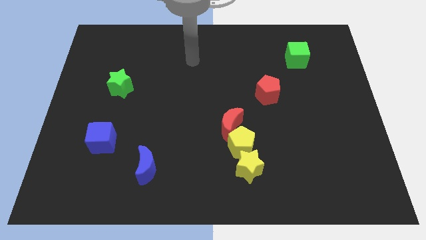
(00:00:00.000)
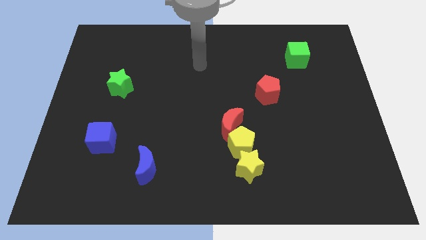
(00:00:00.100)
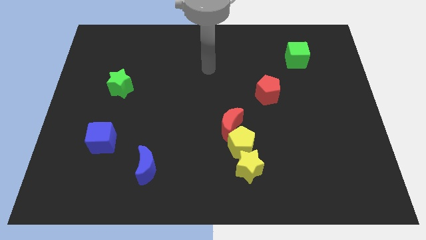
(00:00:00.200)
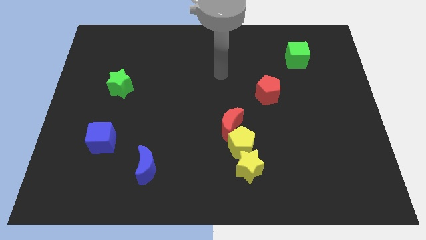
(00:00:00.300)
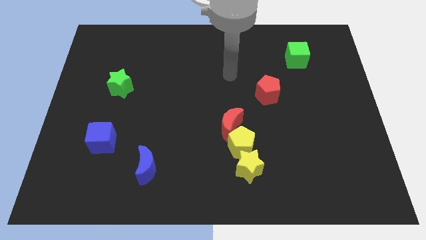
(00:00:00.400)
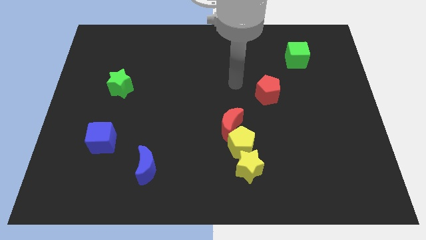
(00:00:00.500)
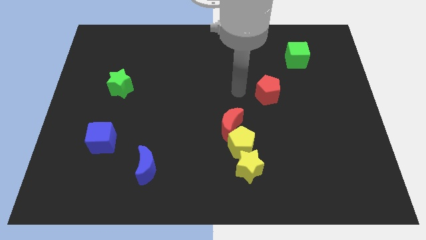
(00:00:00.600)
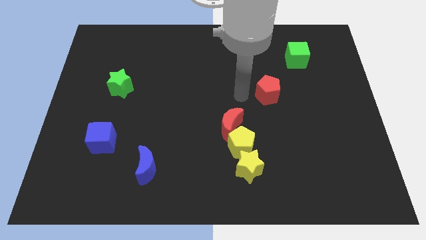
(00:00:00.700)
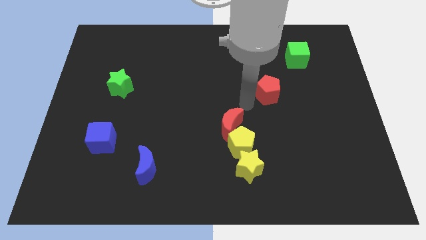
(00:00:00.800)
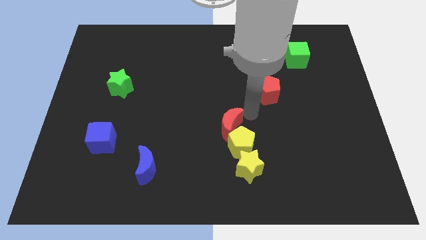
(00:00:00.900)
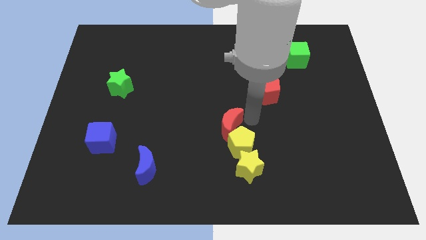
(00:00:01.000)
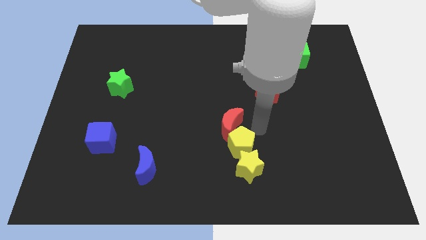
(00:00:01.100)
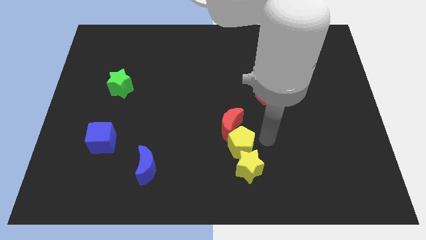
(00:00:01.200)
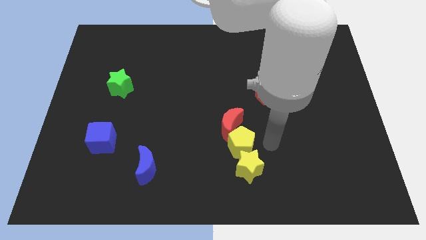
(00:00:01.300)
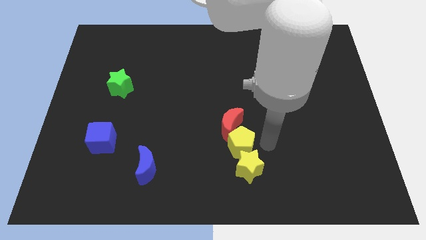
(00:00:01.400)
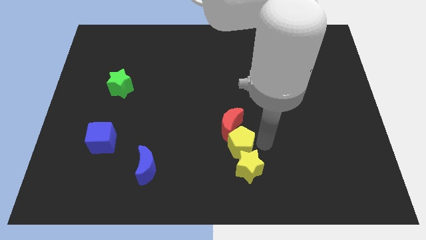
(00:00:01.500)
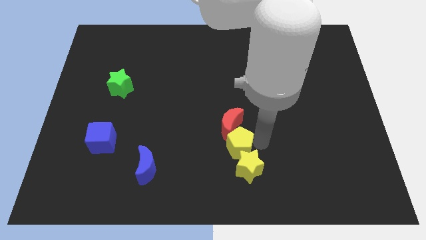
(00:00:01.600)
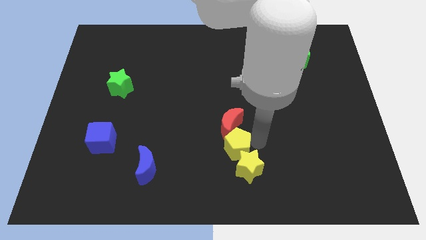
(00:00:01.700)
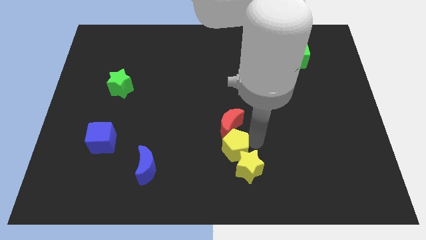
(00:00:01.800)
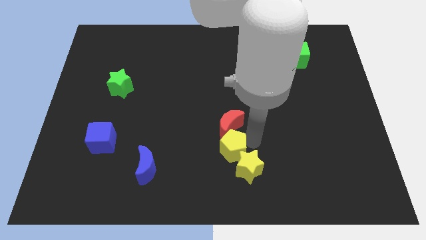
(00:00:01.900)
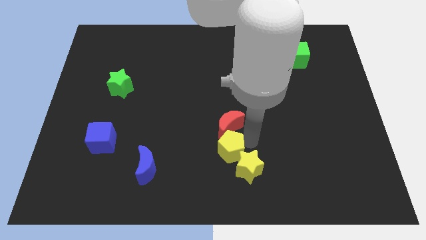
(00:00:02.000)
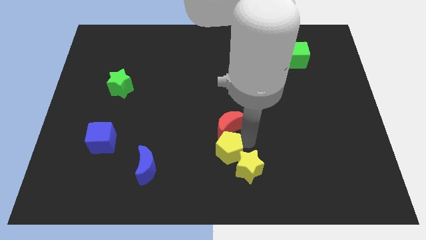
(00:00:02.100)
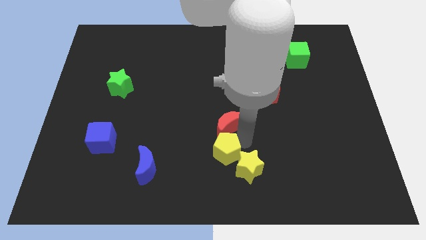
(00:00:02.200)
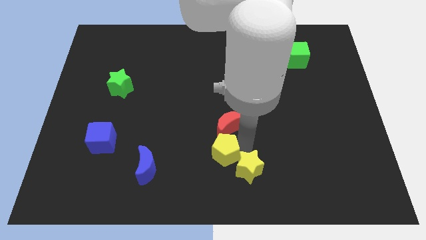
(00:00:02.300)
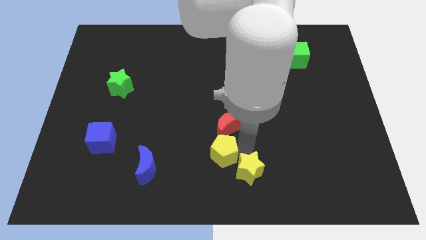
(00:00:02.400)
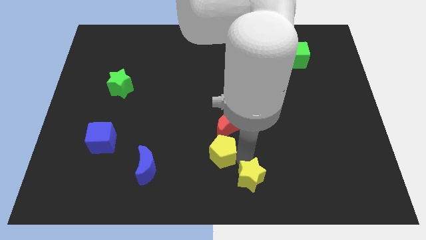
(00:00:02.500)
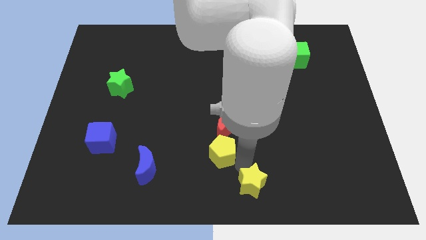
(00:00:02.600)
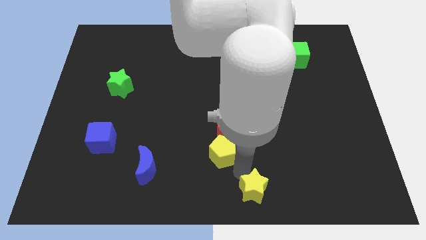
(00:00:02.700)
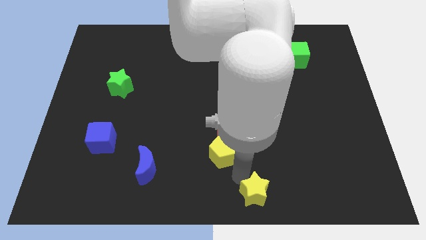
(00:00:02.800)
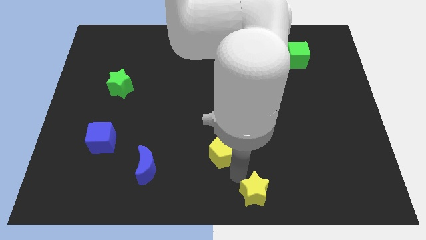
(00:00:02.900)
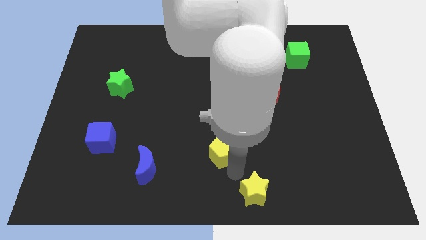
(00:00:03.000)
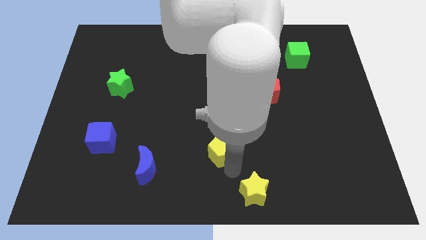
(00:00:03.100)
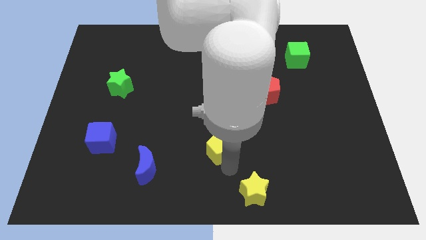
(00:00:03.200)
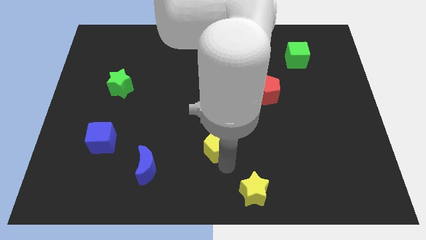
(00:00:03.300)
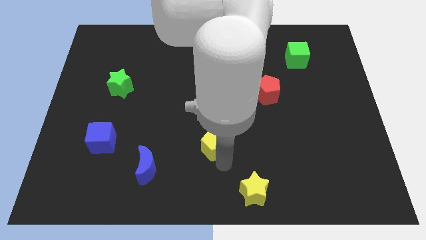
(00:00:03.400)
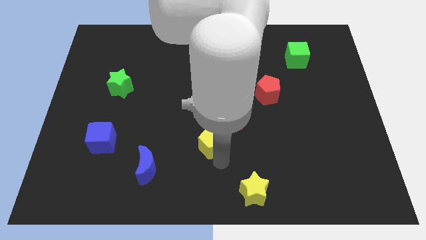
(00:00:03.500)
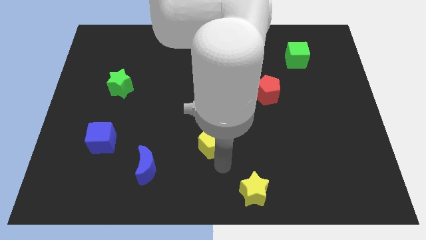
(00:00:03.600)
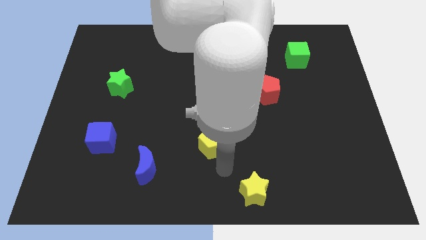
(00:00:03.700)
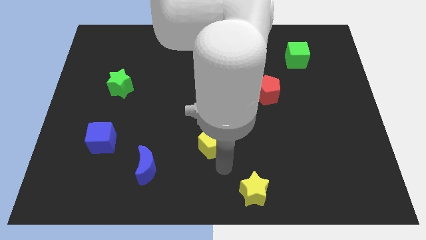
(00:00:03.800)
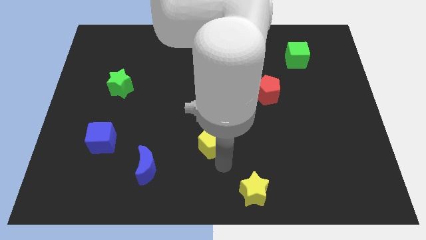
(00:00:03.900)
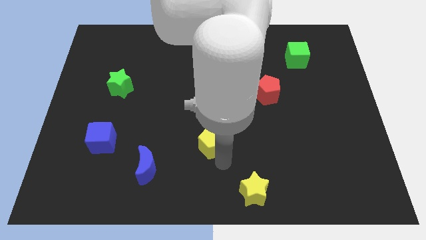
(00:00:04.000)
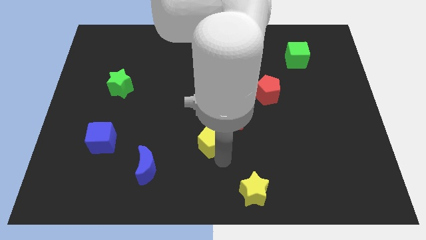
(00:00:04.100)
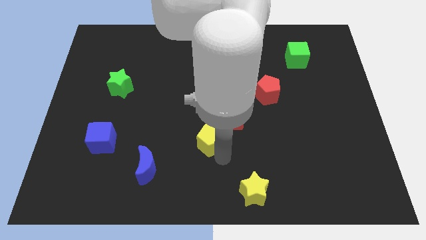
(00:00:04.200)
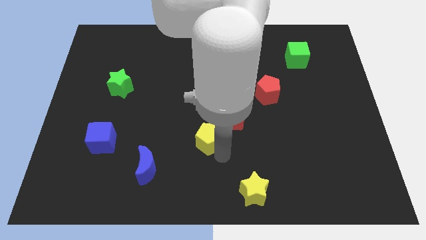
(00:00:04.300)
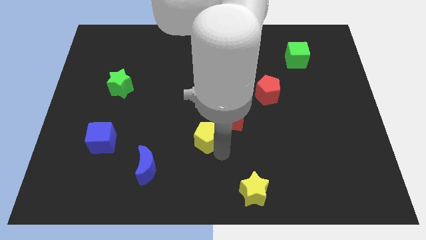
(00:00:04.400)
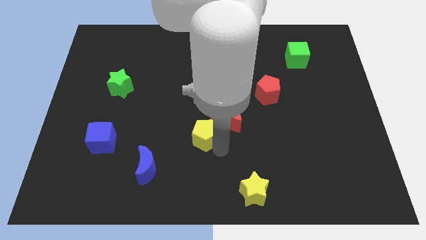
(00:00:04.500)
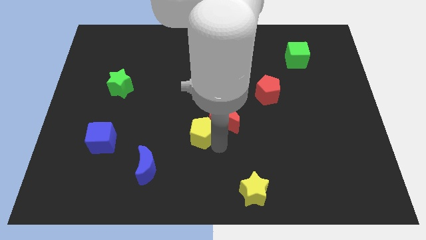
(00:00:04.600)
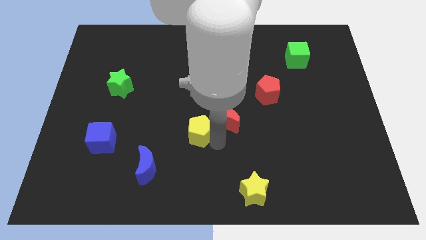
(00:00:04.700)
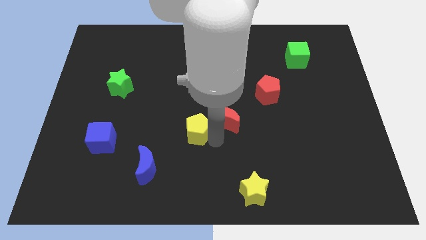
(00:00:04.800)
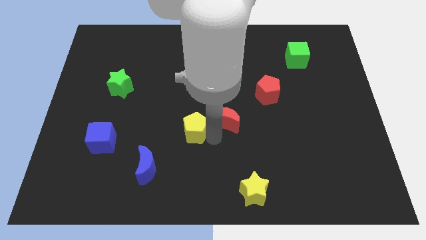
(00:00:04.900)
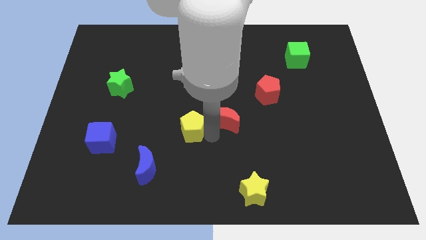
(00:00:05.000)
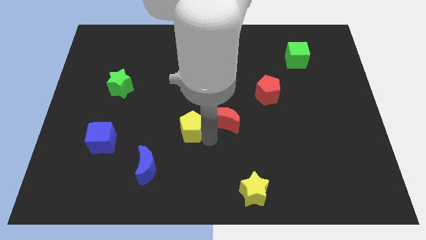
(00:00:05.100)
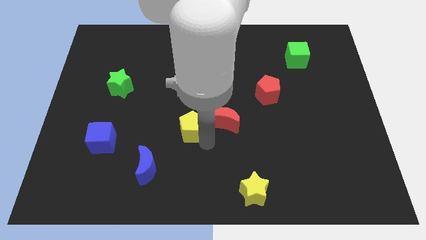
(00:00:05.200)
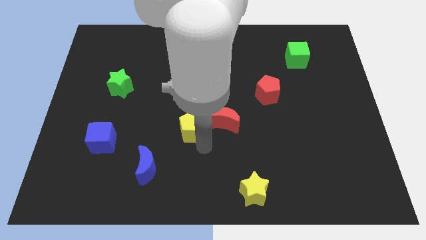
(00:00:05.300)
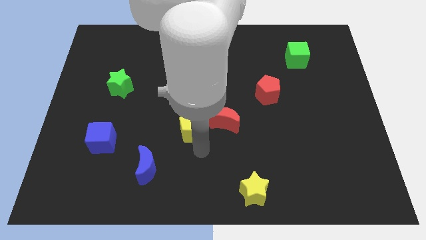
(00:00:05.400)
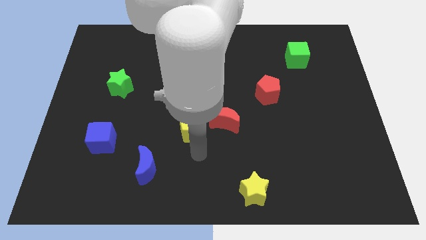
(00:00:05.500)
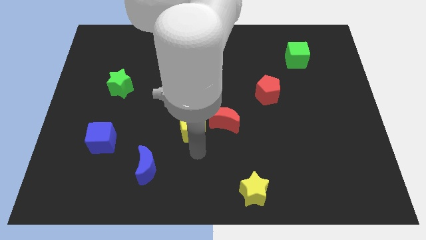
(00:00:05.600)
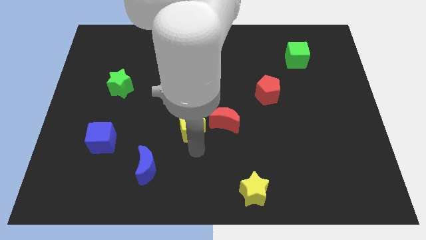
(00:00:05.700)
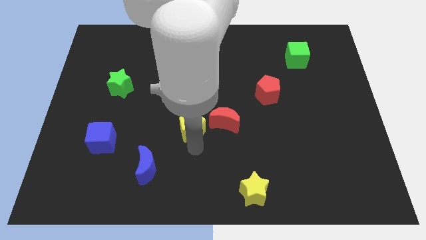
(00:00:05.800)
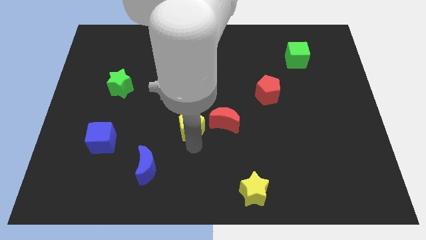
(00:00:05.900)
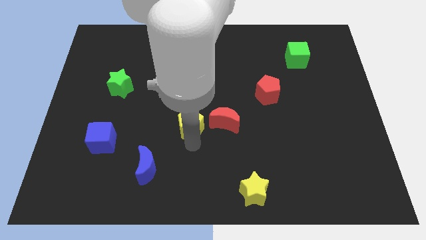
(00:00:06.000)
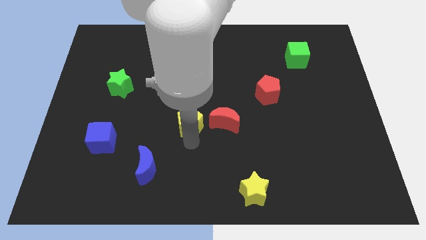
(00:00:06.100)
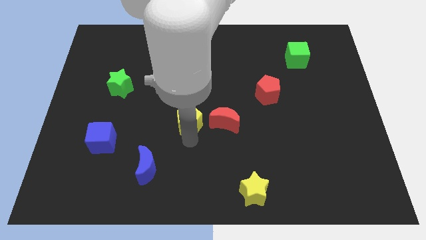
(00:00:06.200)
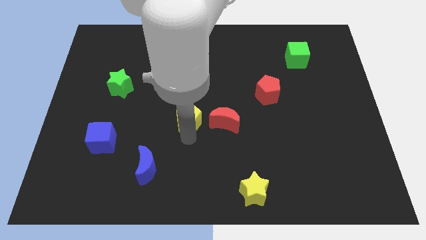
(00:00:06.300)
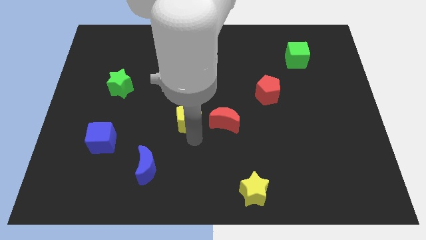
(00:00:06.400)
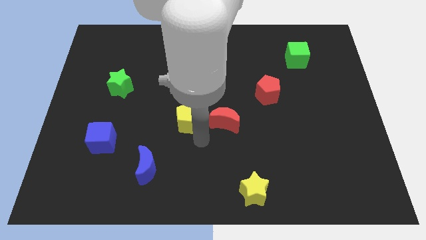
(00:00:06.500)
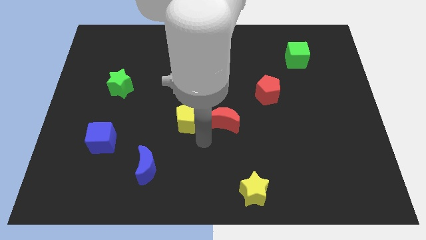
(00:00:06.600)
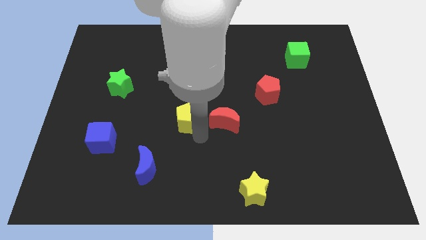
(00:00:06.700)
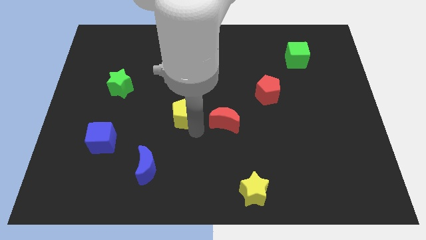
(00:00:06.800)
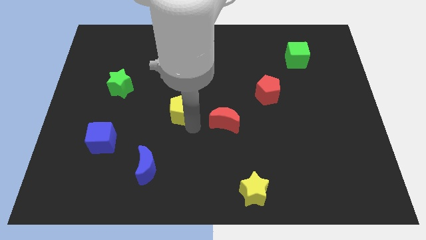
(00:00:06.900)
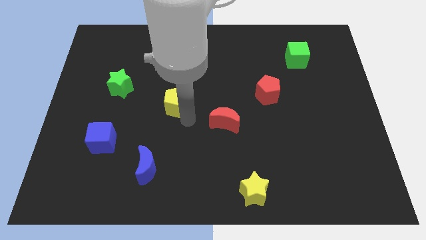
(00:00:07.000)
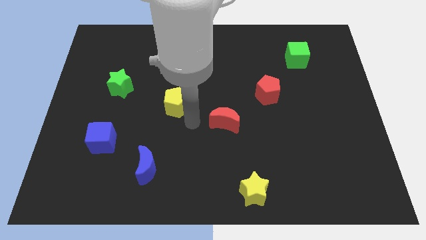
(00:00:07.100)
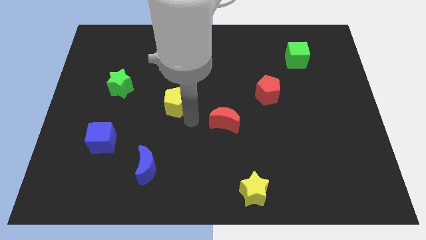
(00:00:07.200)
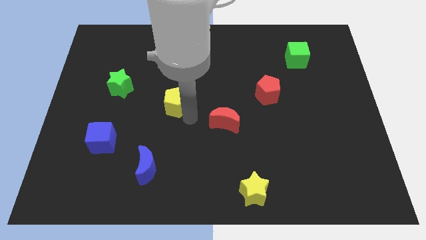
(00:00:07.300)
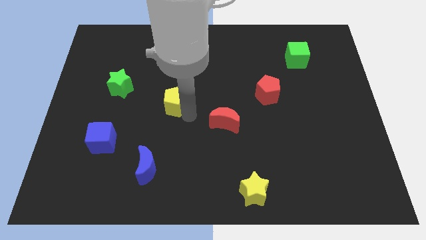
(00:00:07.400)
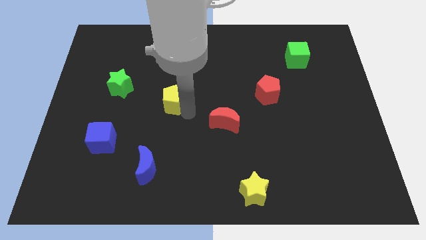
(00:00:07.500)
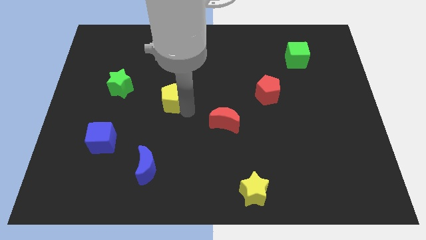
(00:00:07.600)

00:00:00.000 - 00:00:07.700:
slide the yellow pentagon up and left

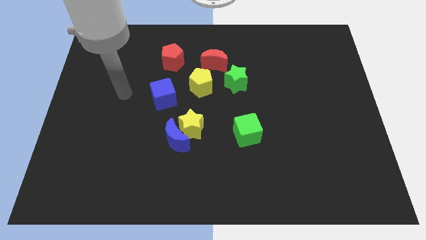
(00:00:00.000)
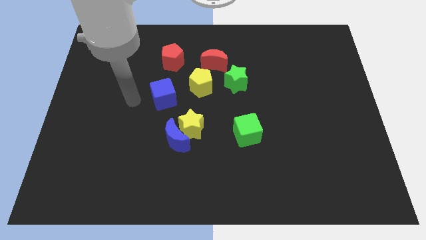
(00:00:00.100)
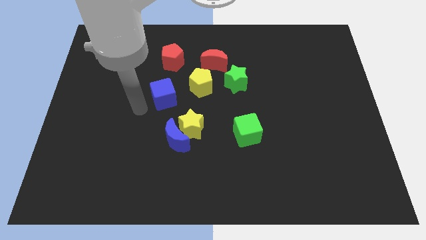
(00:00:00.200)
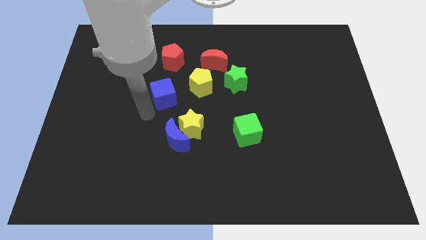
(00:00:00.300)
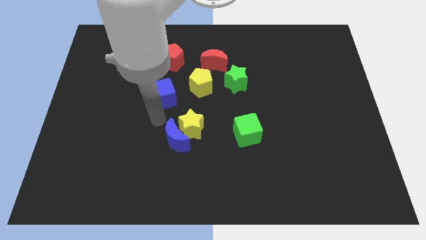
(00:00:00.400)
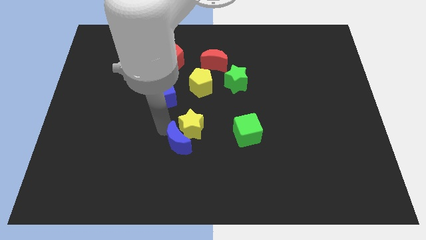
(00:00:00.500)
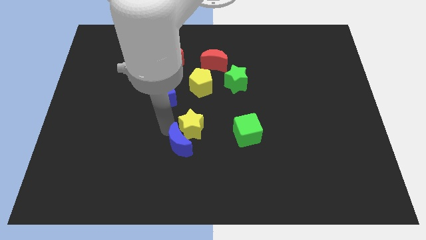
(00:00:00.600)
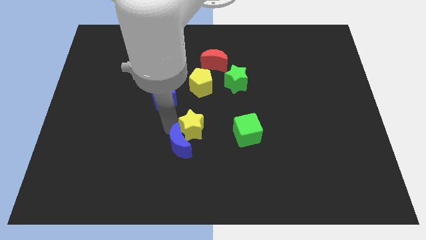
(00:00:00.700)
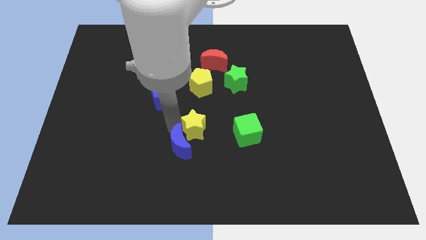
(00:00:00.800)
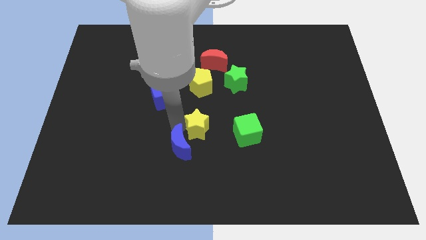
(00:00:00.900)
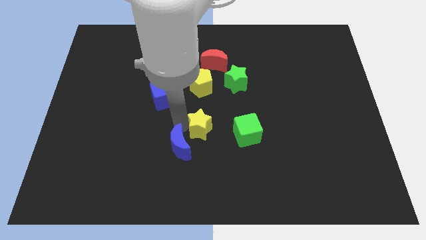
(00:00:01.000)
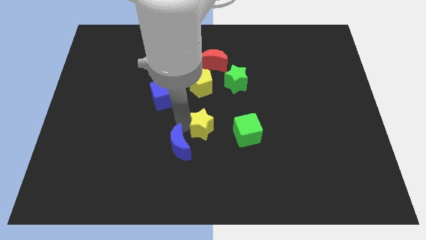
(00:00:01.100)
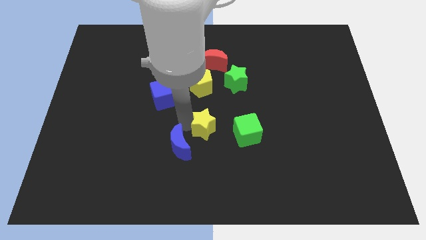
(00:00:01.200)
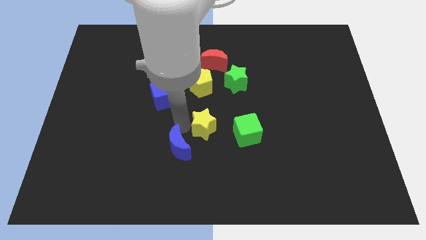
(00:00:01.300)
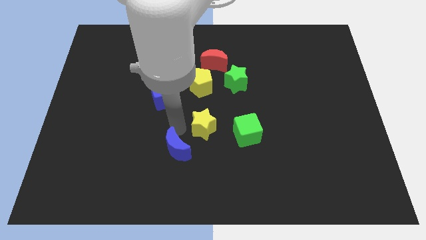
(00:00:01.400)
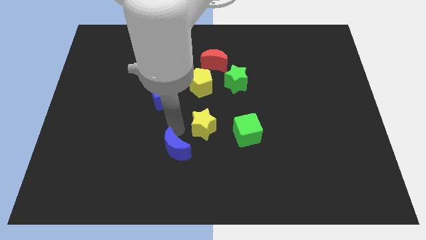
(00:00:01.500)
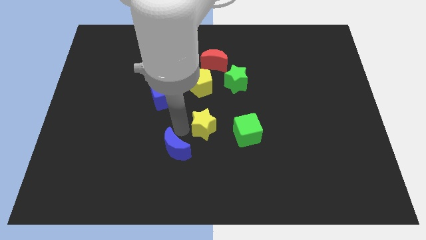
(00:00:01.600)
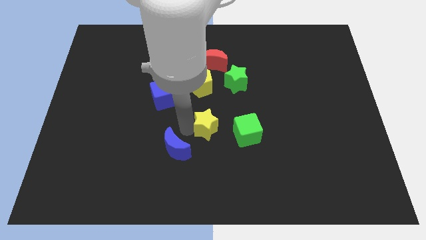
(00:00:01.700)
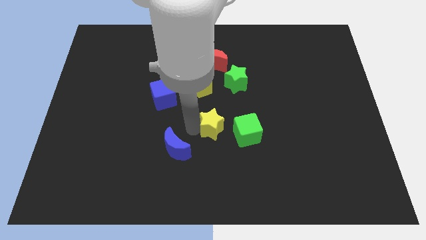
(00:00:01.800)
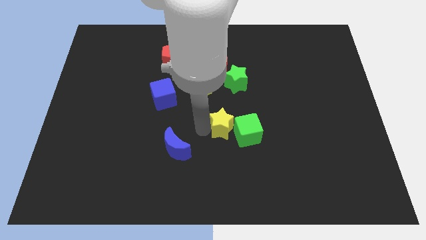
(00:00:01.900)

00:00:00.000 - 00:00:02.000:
move the yellow star a little right
